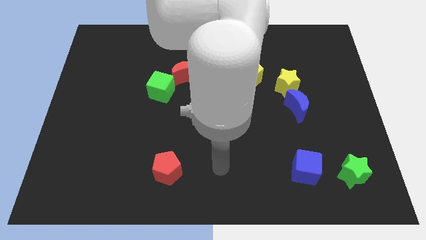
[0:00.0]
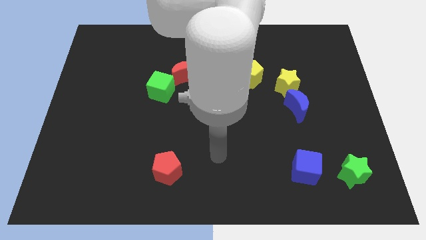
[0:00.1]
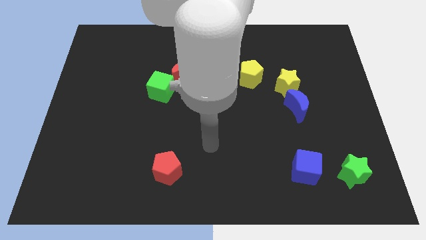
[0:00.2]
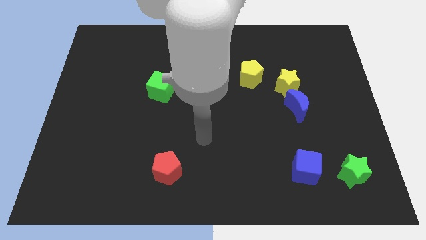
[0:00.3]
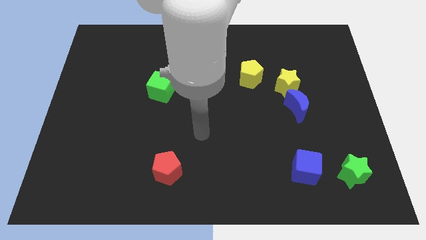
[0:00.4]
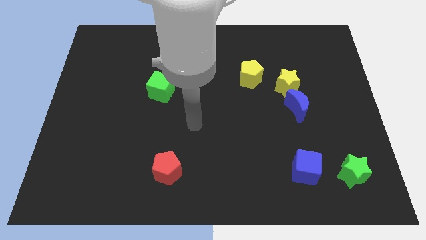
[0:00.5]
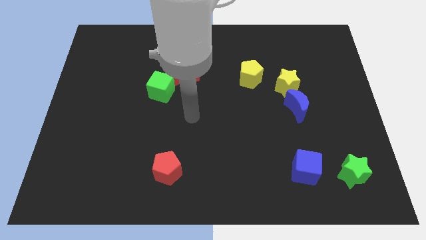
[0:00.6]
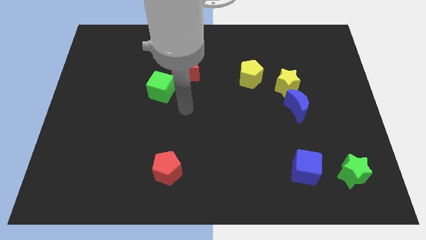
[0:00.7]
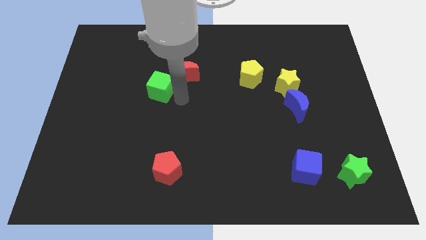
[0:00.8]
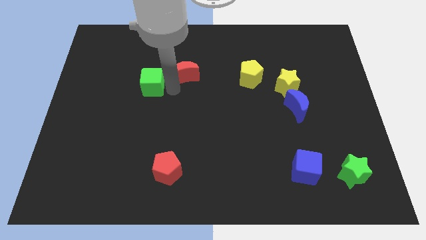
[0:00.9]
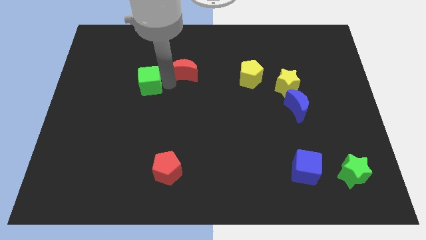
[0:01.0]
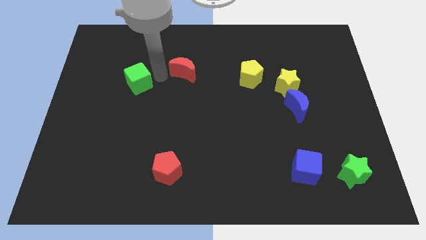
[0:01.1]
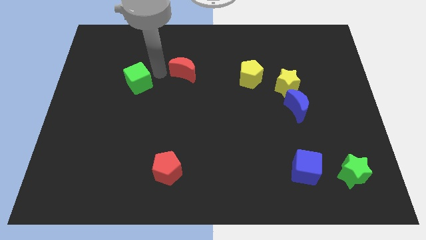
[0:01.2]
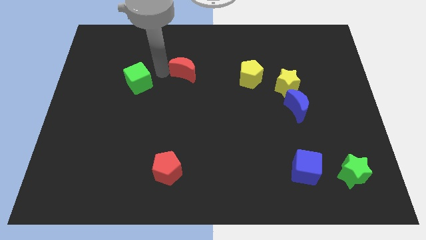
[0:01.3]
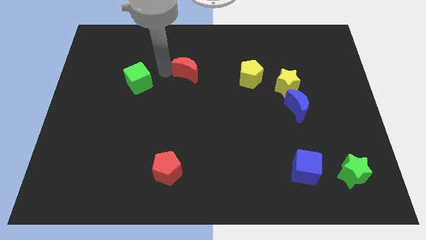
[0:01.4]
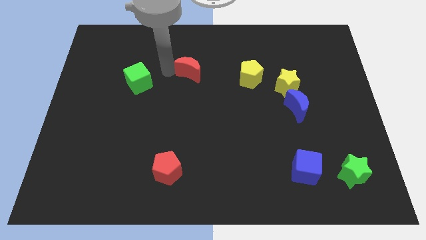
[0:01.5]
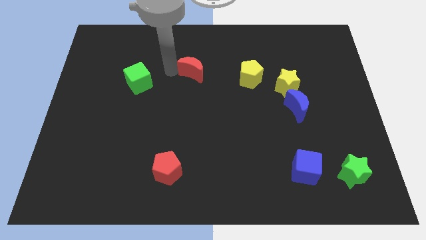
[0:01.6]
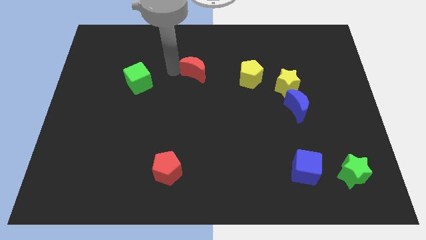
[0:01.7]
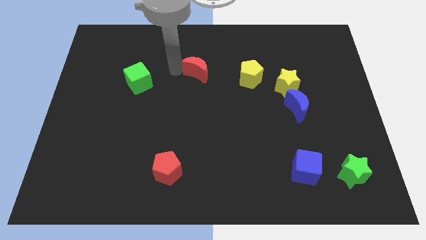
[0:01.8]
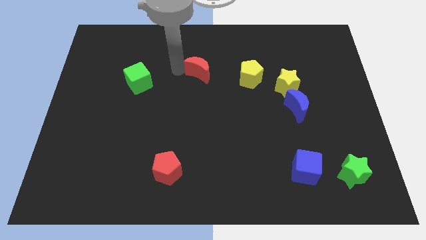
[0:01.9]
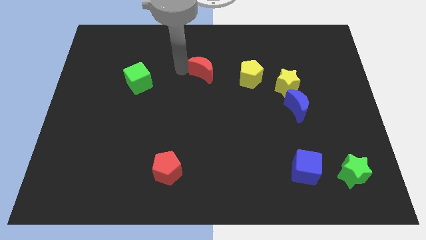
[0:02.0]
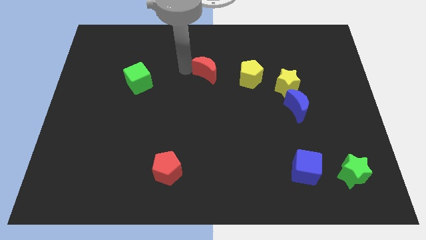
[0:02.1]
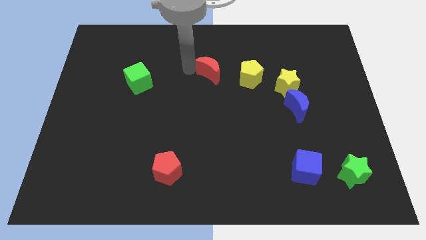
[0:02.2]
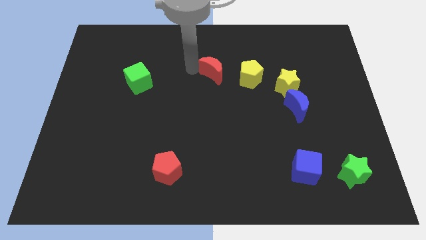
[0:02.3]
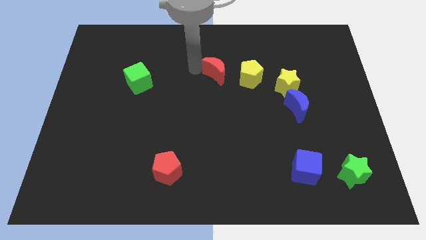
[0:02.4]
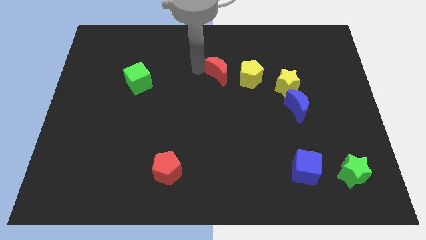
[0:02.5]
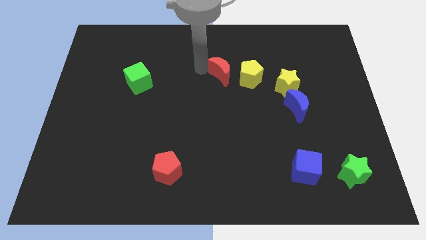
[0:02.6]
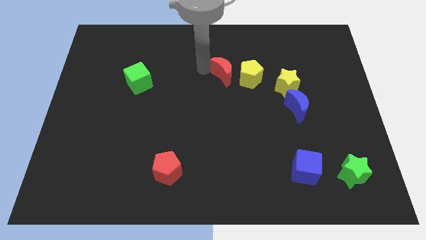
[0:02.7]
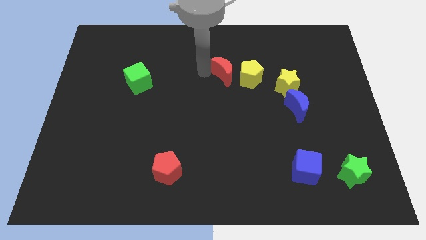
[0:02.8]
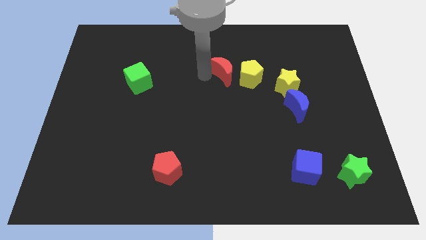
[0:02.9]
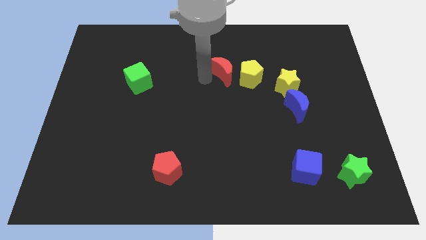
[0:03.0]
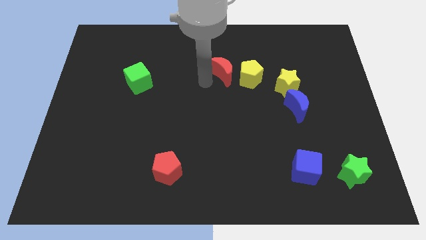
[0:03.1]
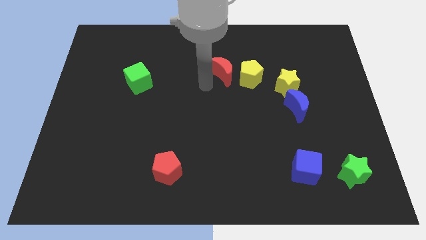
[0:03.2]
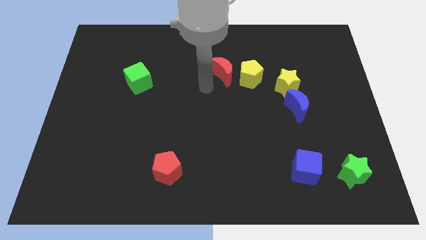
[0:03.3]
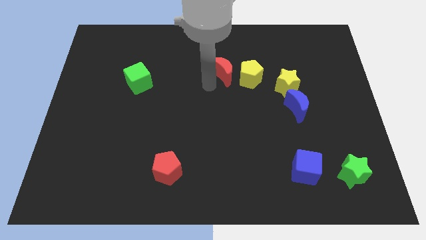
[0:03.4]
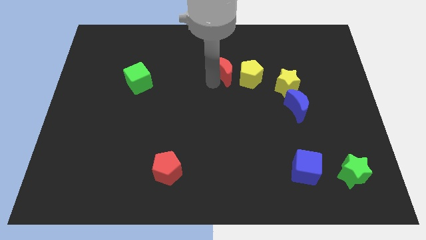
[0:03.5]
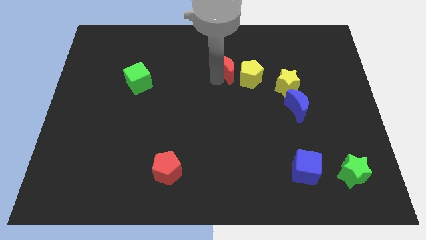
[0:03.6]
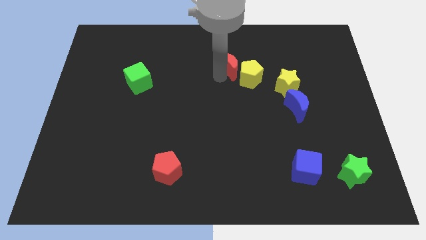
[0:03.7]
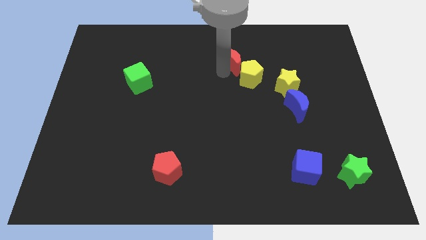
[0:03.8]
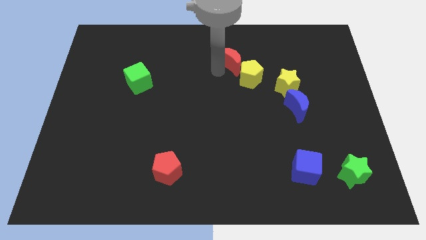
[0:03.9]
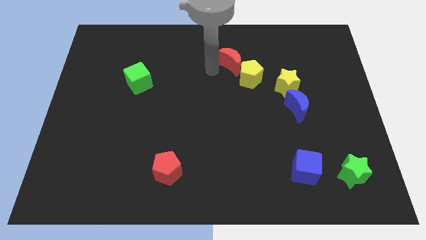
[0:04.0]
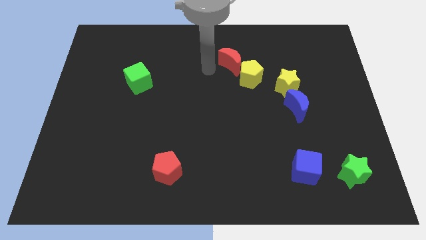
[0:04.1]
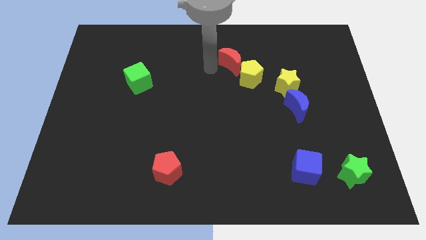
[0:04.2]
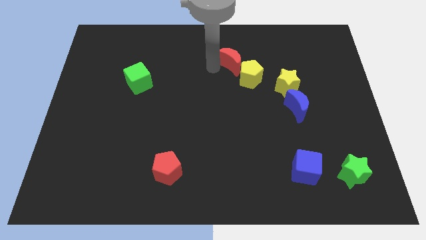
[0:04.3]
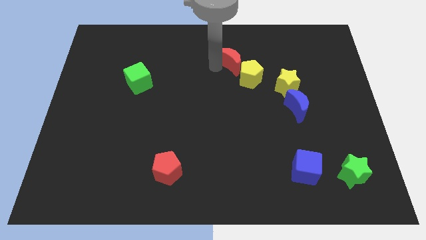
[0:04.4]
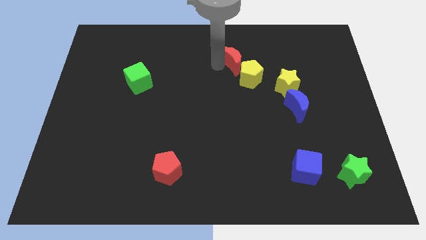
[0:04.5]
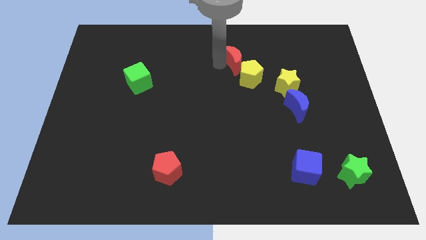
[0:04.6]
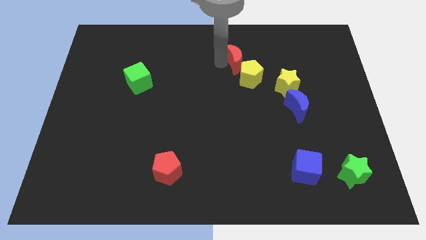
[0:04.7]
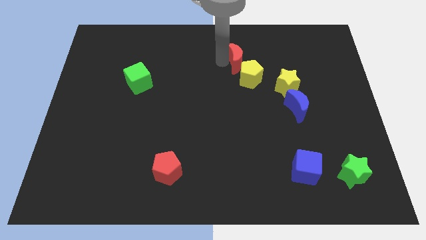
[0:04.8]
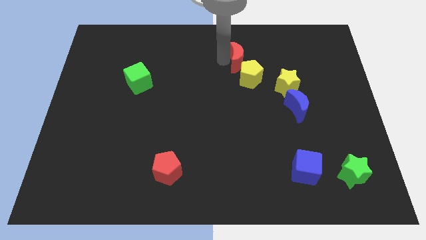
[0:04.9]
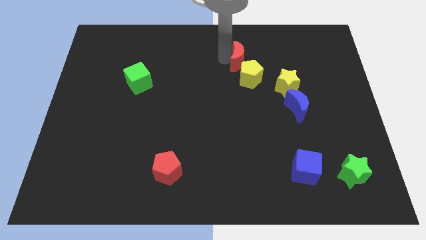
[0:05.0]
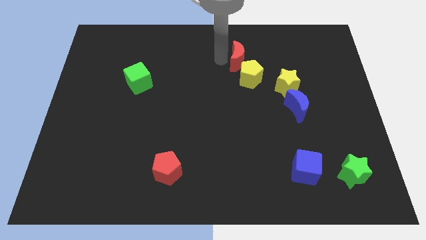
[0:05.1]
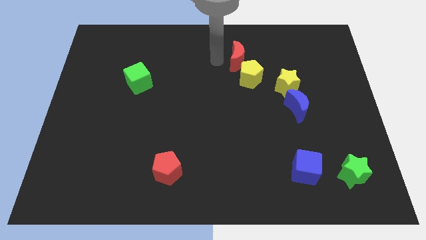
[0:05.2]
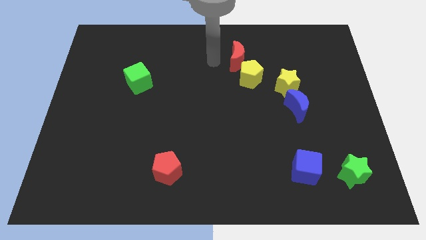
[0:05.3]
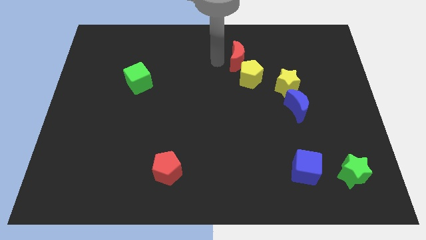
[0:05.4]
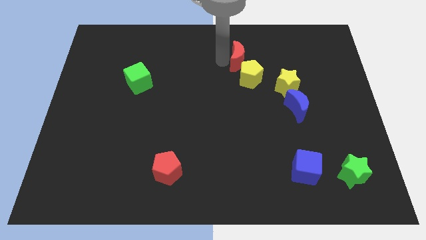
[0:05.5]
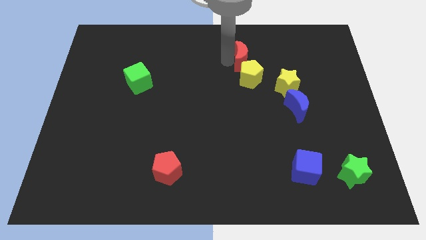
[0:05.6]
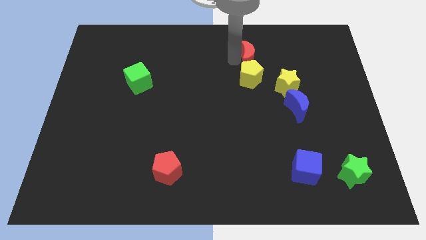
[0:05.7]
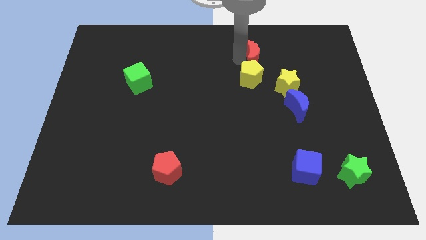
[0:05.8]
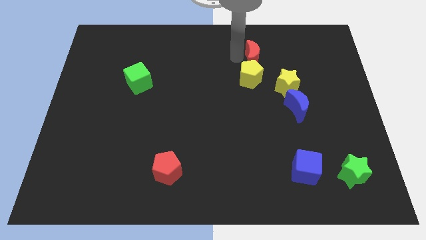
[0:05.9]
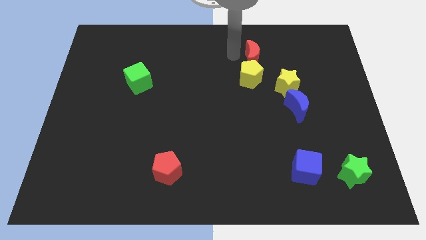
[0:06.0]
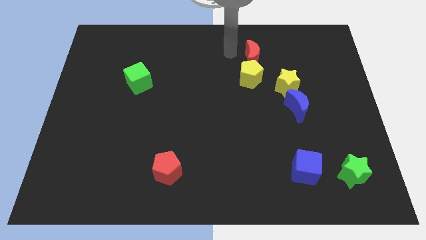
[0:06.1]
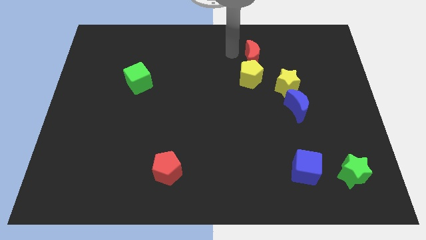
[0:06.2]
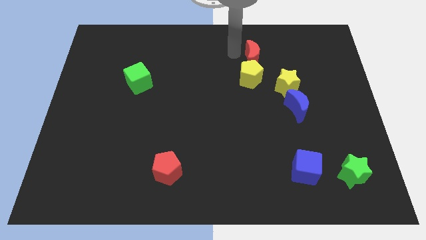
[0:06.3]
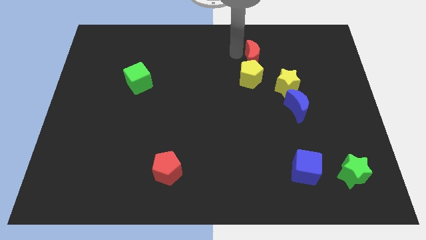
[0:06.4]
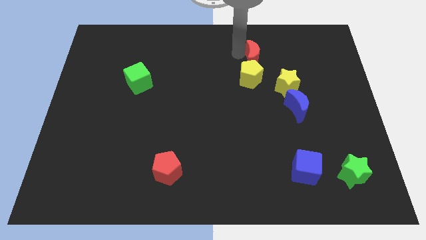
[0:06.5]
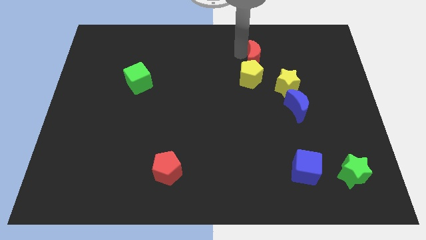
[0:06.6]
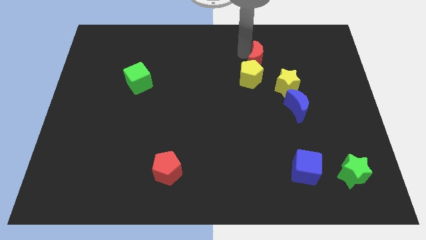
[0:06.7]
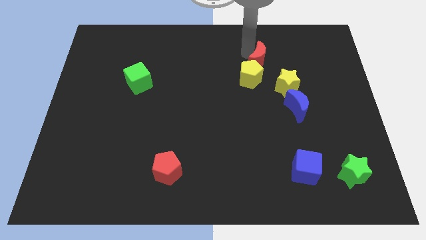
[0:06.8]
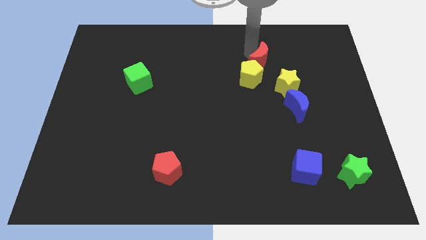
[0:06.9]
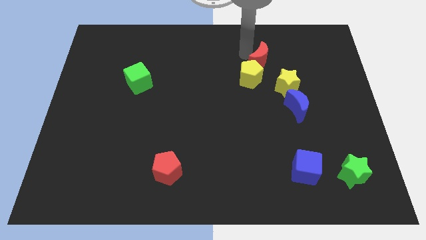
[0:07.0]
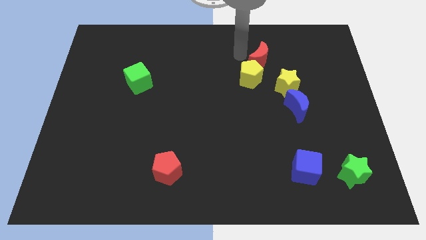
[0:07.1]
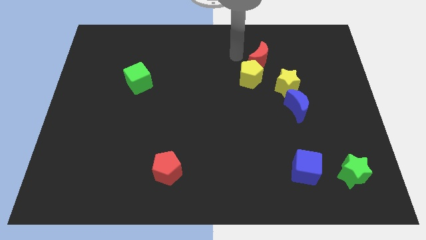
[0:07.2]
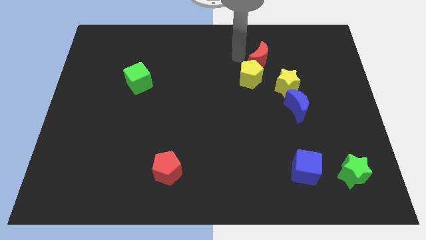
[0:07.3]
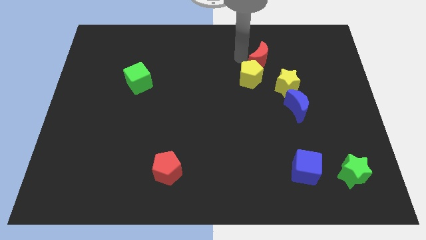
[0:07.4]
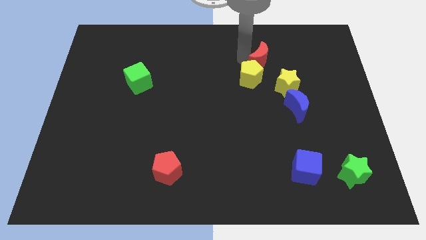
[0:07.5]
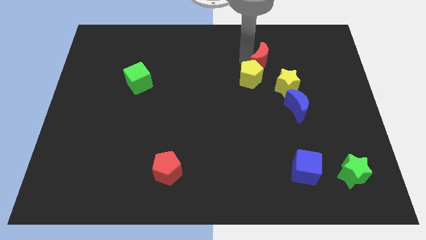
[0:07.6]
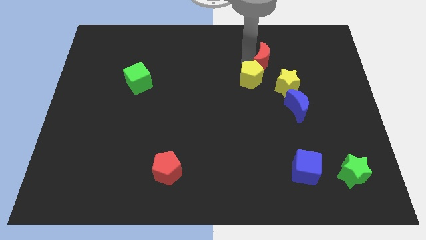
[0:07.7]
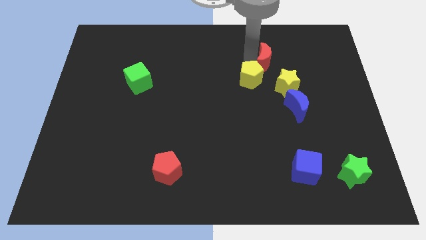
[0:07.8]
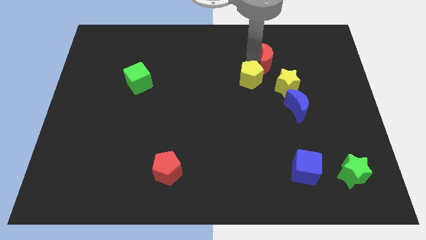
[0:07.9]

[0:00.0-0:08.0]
slide the red moon to the right
